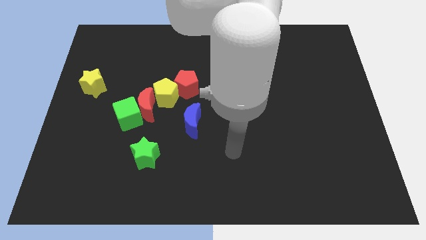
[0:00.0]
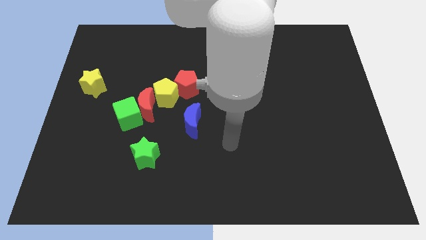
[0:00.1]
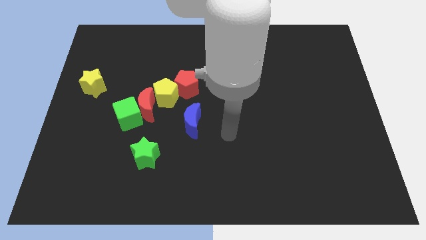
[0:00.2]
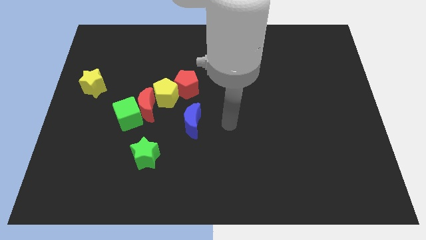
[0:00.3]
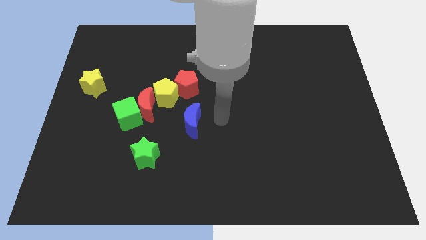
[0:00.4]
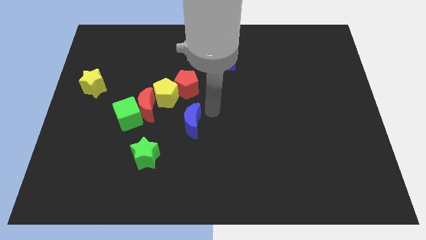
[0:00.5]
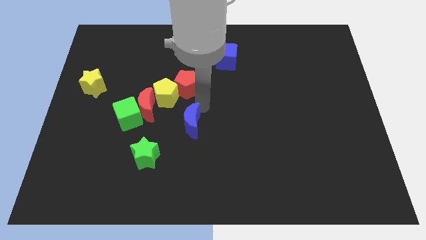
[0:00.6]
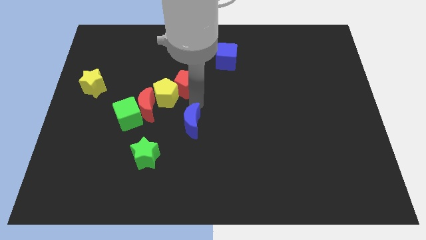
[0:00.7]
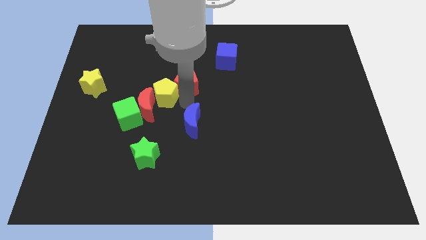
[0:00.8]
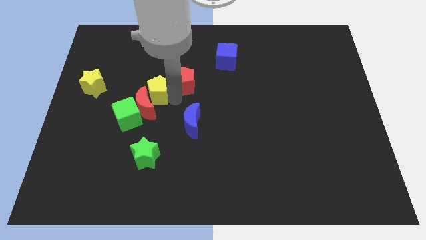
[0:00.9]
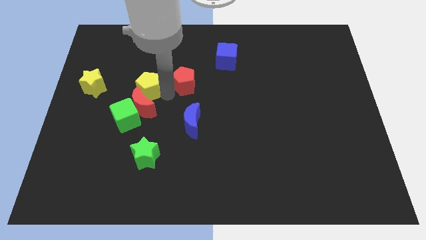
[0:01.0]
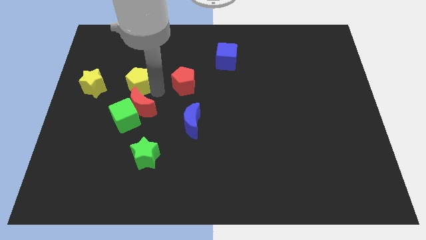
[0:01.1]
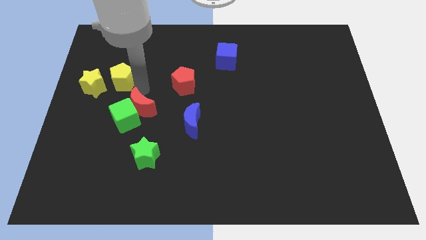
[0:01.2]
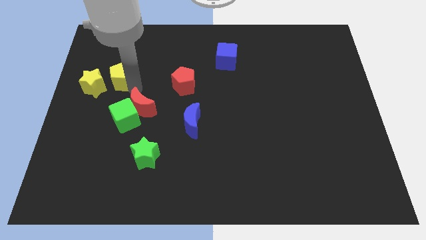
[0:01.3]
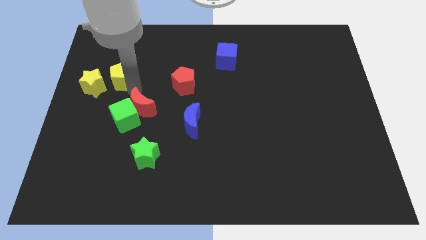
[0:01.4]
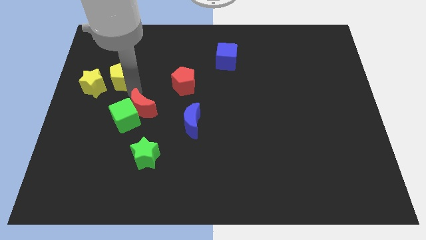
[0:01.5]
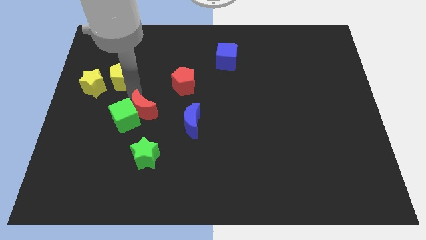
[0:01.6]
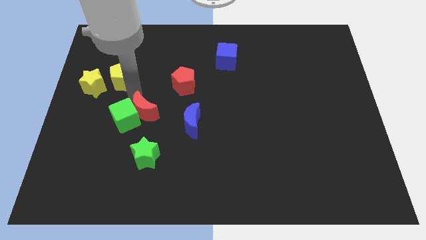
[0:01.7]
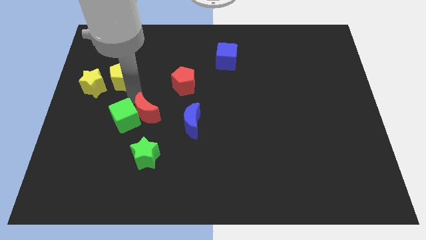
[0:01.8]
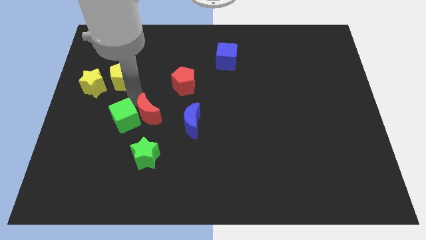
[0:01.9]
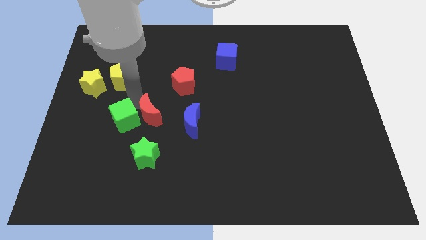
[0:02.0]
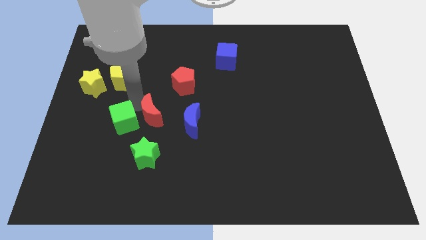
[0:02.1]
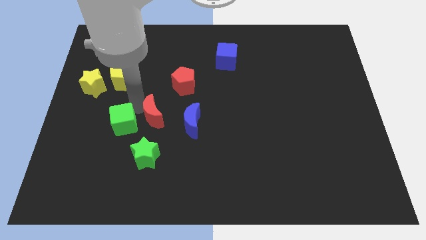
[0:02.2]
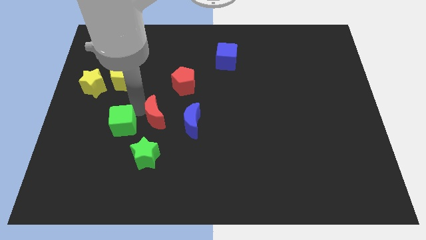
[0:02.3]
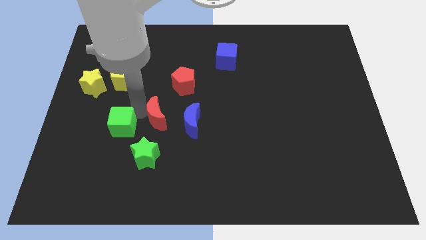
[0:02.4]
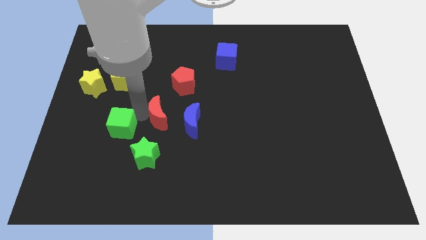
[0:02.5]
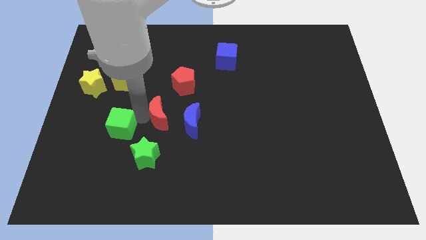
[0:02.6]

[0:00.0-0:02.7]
move the red moon away from the green cube and yellow pentagon

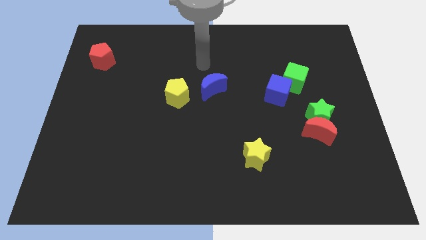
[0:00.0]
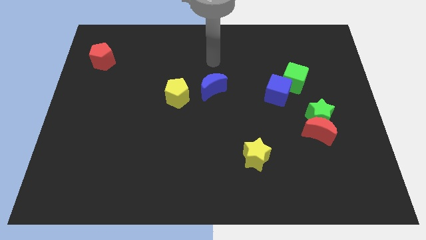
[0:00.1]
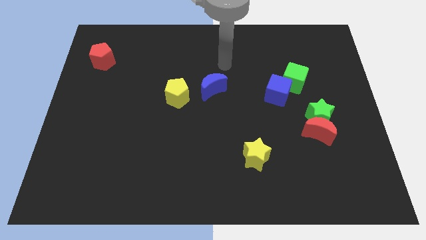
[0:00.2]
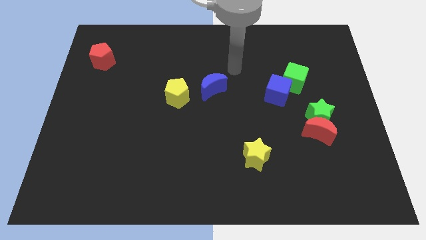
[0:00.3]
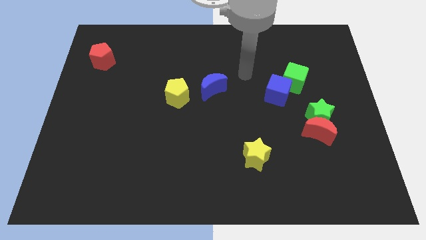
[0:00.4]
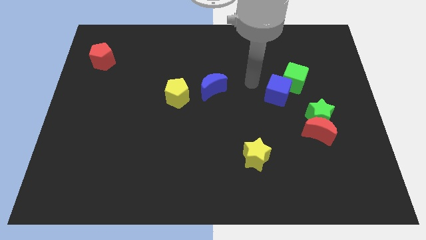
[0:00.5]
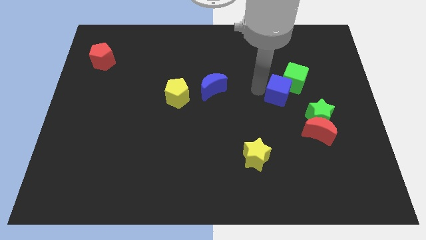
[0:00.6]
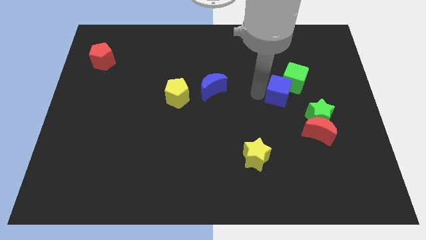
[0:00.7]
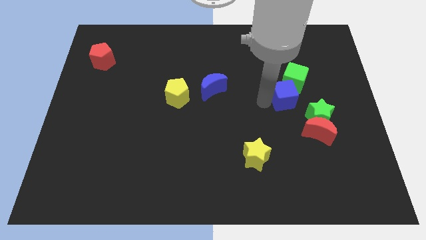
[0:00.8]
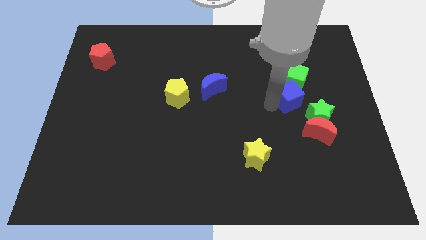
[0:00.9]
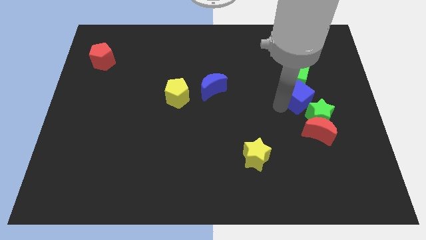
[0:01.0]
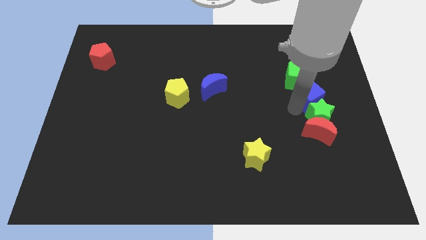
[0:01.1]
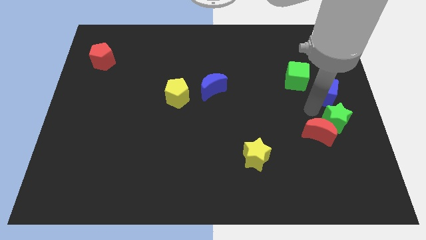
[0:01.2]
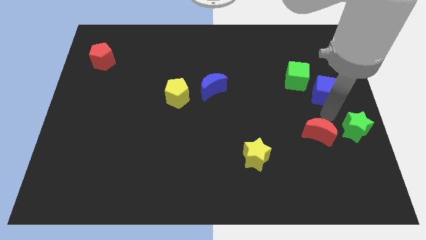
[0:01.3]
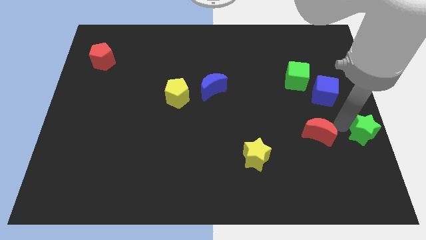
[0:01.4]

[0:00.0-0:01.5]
move the red moon away from the green star

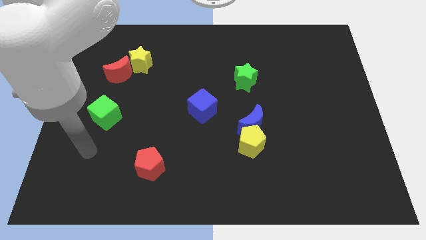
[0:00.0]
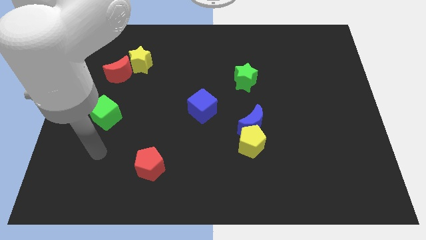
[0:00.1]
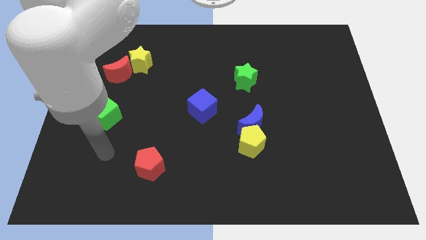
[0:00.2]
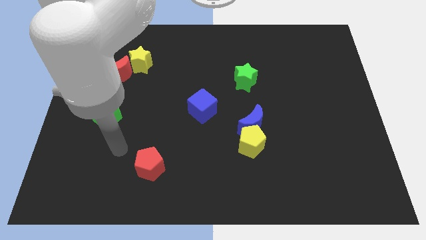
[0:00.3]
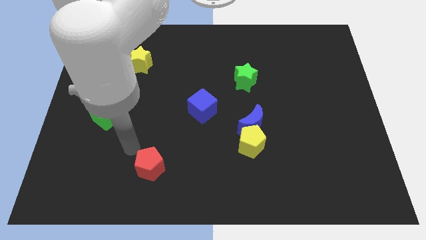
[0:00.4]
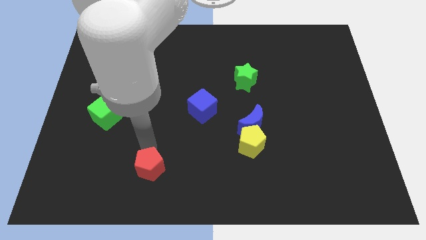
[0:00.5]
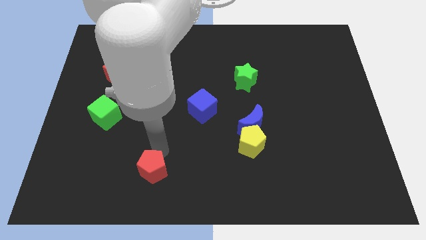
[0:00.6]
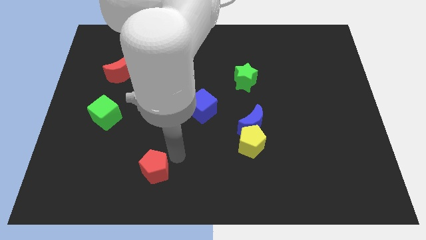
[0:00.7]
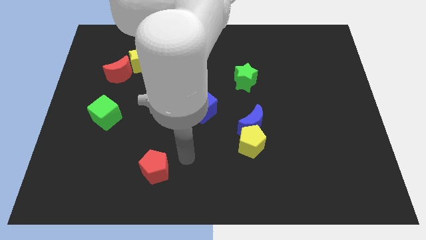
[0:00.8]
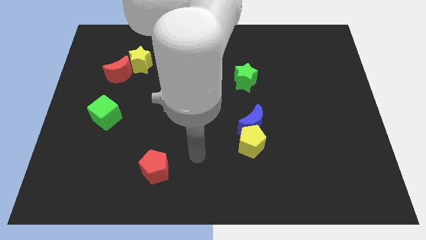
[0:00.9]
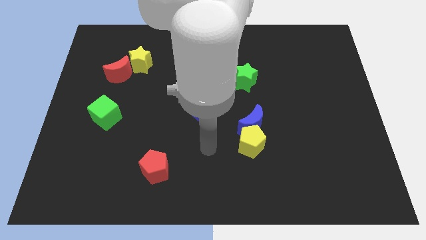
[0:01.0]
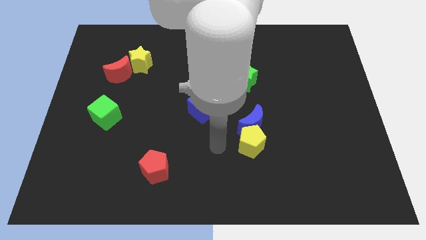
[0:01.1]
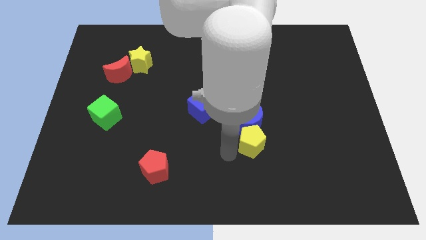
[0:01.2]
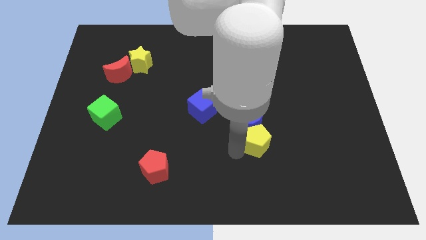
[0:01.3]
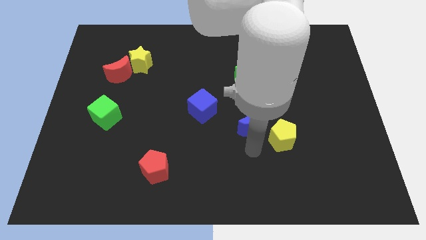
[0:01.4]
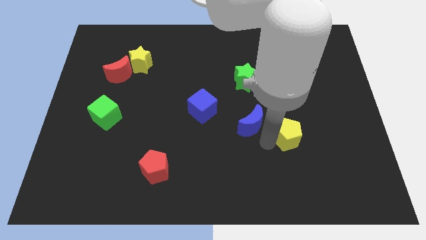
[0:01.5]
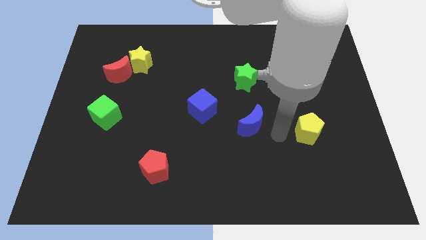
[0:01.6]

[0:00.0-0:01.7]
separate the blue moon from the yellow pentagon

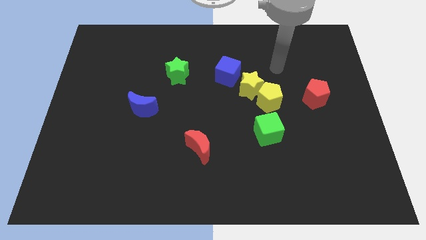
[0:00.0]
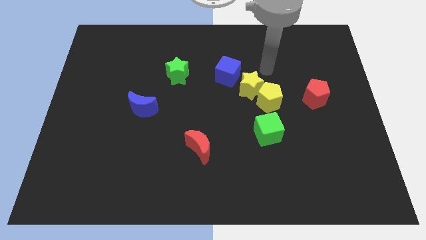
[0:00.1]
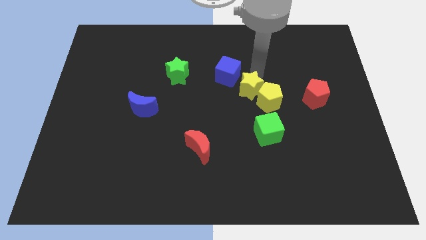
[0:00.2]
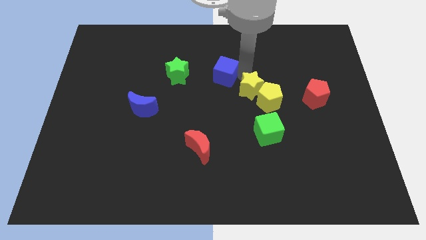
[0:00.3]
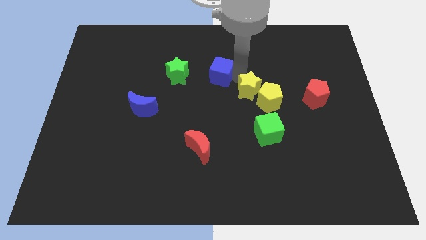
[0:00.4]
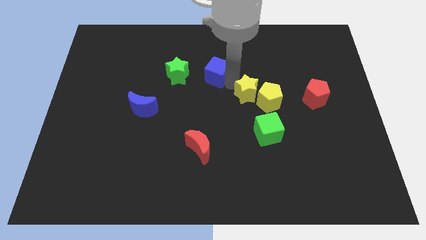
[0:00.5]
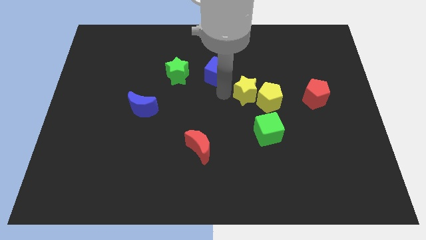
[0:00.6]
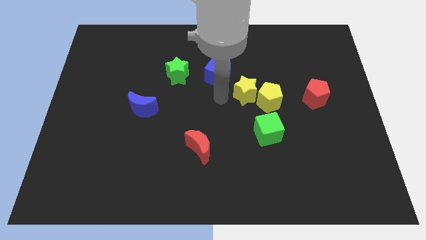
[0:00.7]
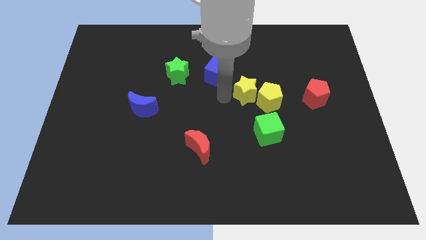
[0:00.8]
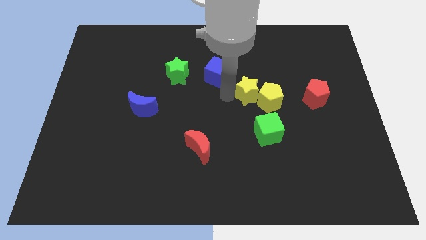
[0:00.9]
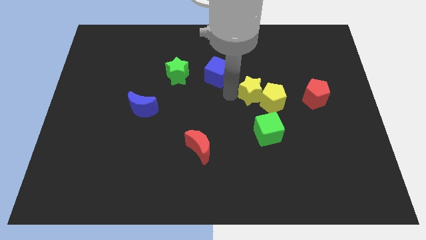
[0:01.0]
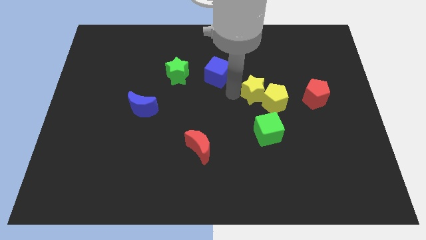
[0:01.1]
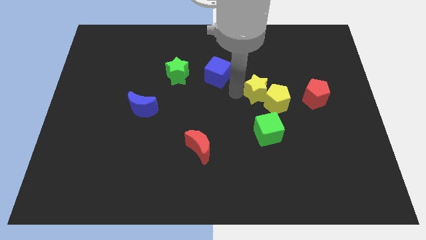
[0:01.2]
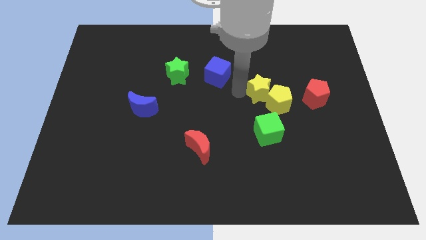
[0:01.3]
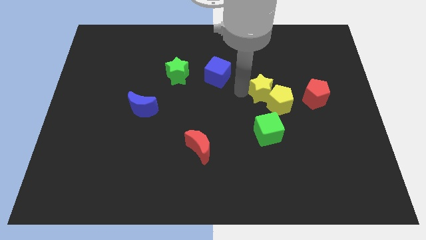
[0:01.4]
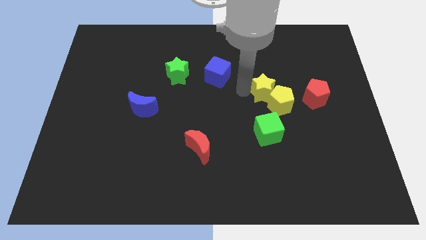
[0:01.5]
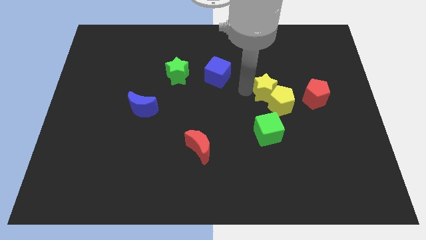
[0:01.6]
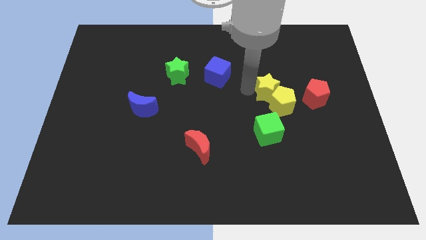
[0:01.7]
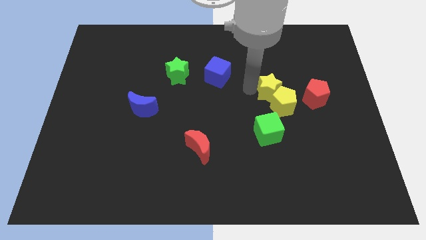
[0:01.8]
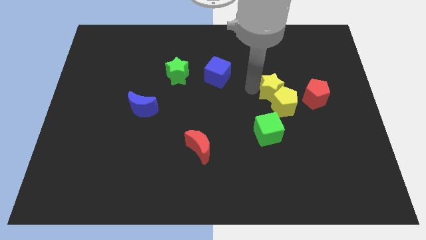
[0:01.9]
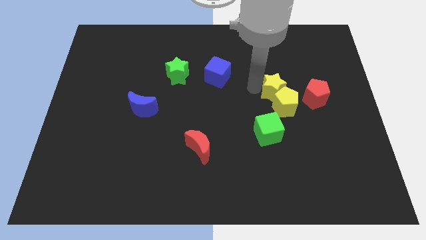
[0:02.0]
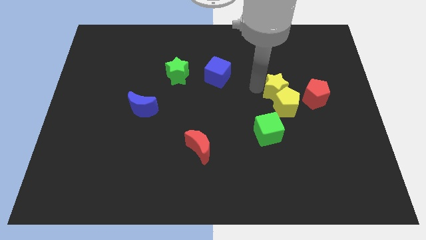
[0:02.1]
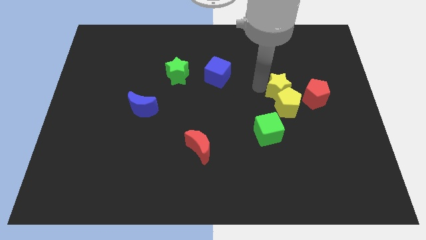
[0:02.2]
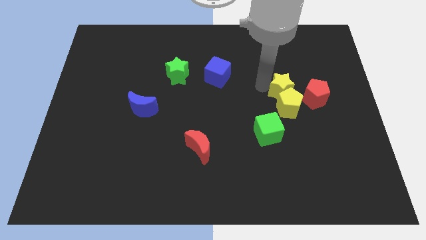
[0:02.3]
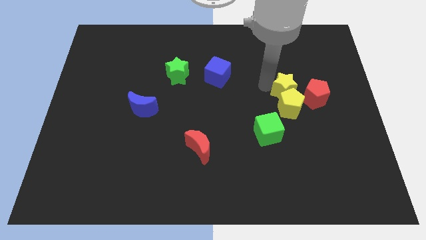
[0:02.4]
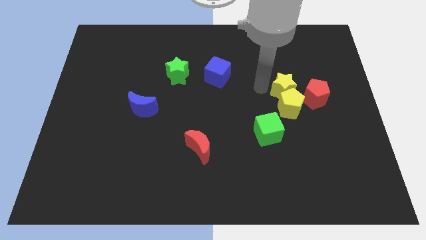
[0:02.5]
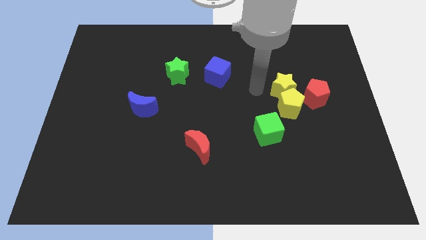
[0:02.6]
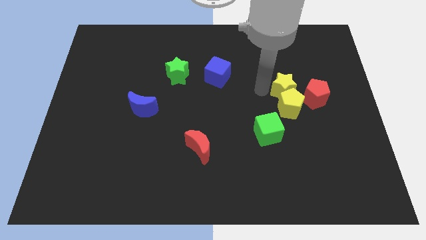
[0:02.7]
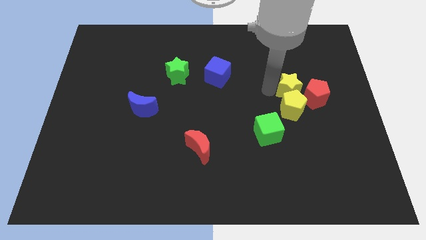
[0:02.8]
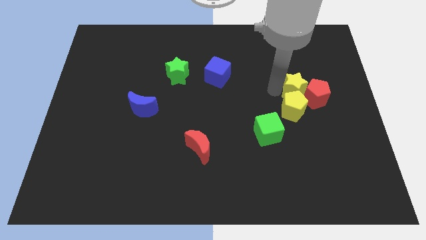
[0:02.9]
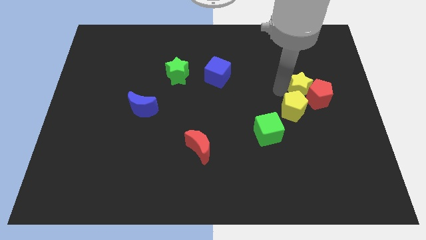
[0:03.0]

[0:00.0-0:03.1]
separate the yellow star from the yellow pentagon and blue cube

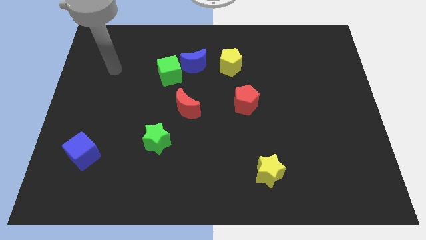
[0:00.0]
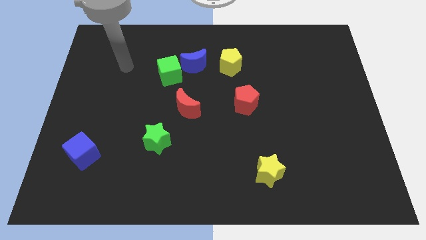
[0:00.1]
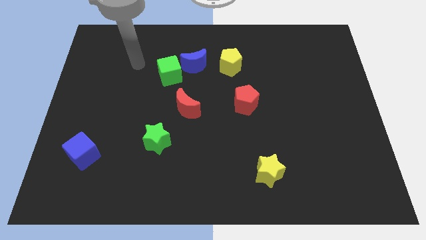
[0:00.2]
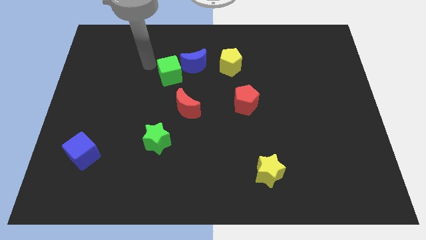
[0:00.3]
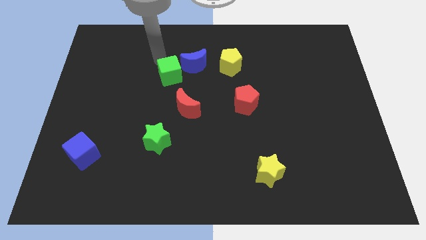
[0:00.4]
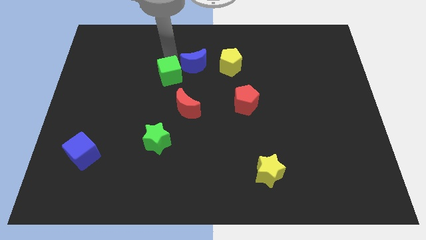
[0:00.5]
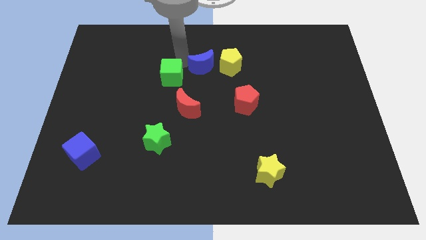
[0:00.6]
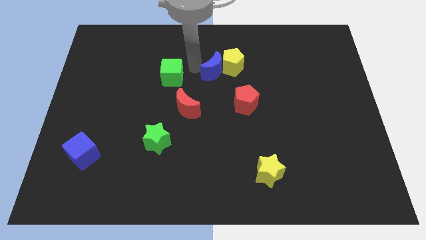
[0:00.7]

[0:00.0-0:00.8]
separate the green cube from the blue moon
